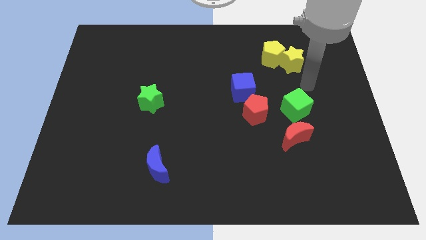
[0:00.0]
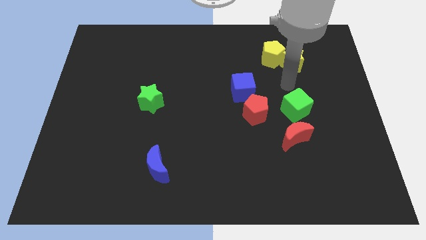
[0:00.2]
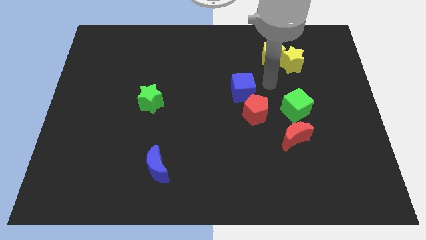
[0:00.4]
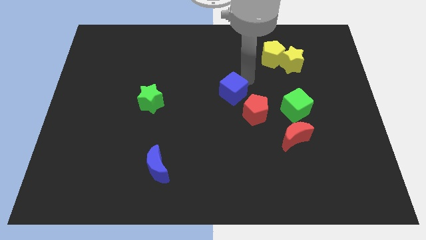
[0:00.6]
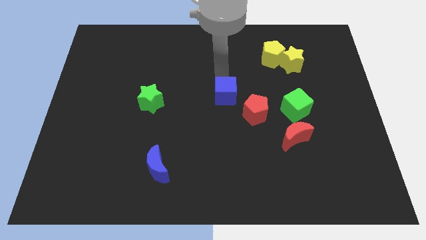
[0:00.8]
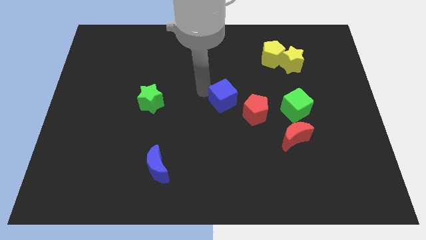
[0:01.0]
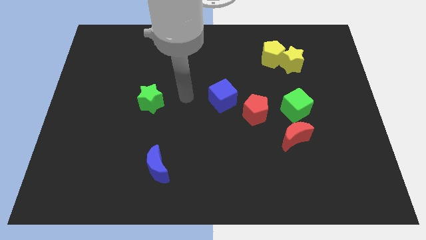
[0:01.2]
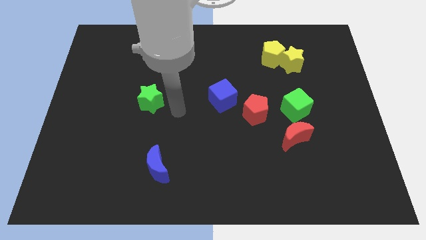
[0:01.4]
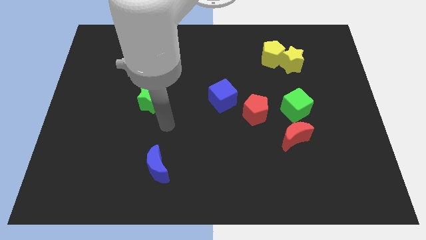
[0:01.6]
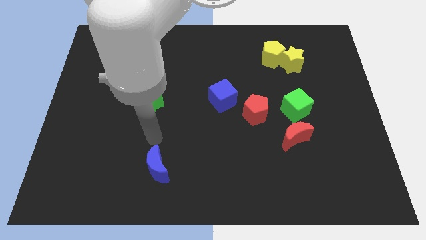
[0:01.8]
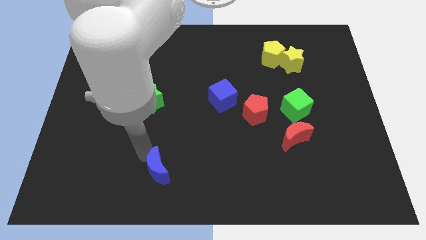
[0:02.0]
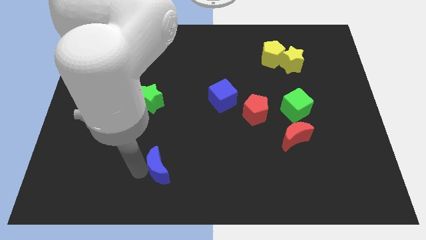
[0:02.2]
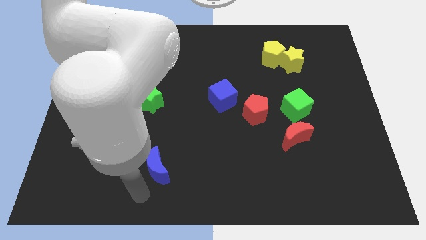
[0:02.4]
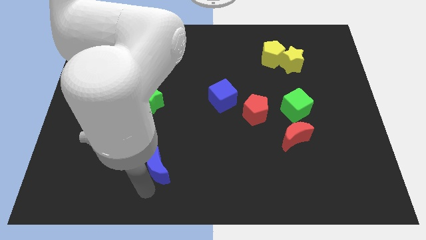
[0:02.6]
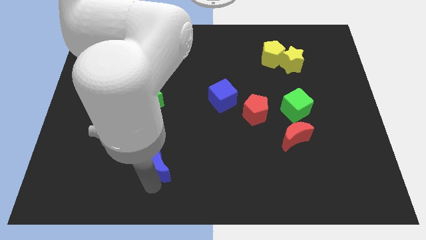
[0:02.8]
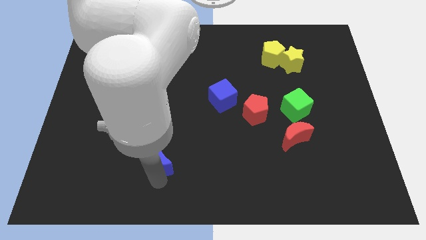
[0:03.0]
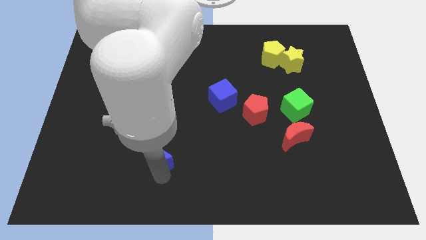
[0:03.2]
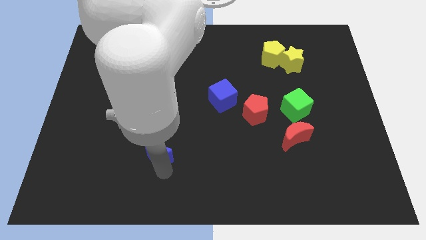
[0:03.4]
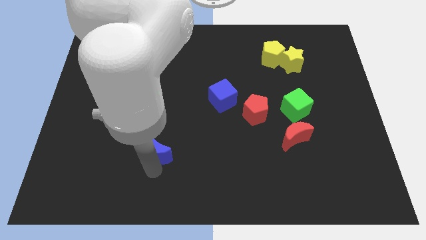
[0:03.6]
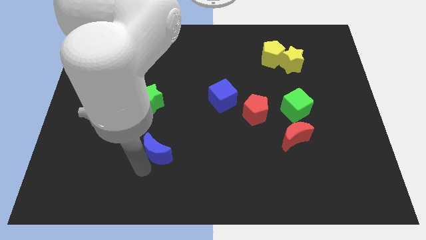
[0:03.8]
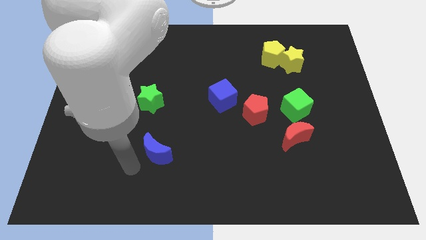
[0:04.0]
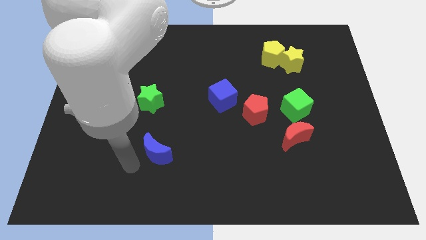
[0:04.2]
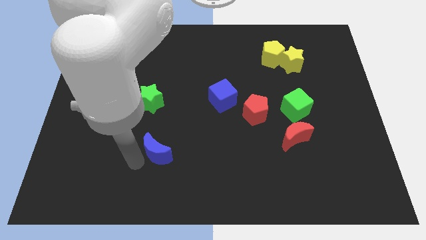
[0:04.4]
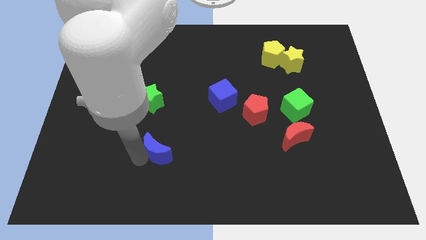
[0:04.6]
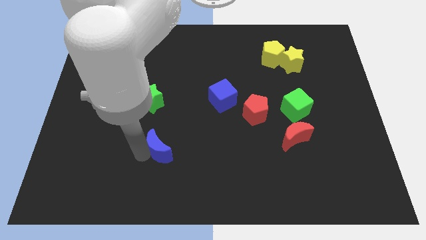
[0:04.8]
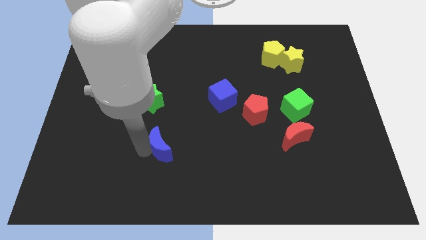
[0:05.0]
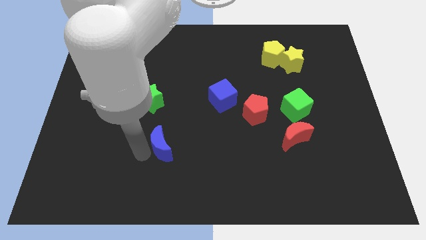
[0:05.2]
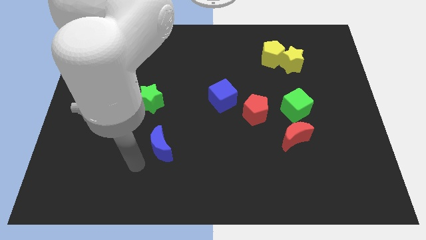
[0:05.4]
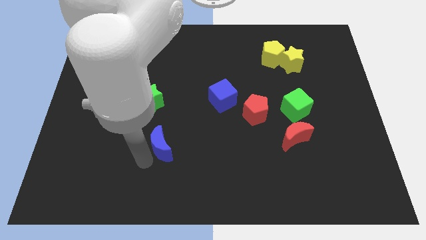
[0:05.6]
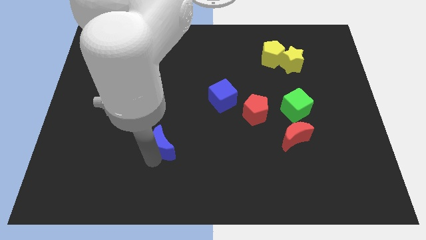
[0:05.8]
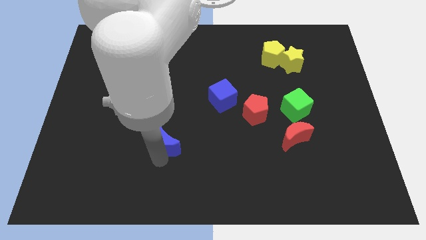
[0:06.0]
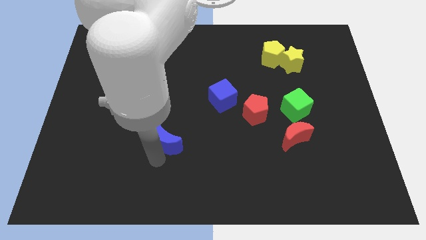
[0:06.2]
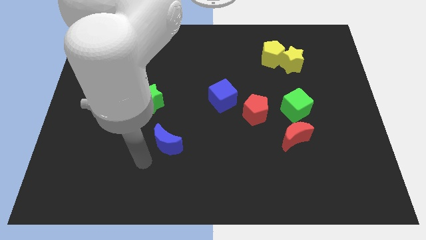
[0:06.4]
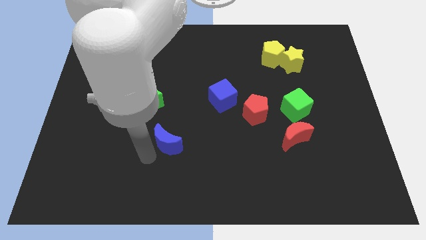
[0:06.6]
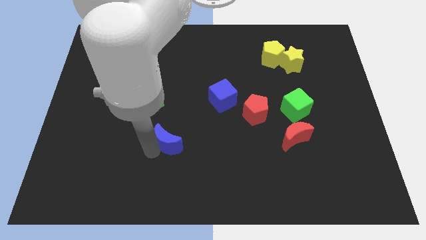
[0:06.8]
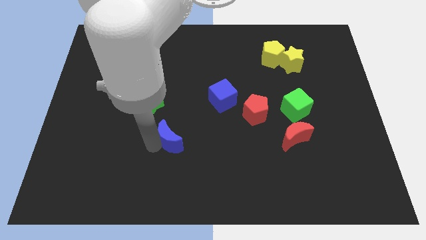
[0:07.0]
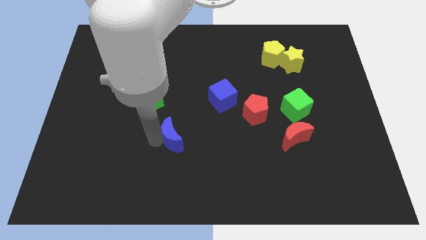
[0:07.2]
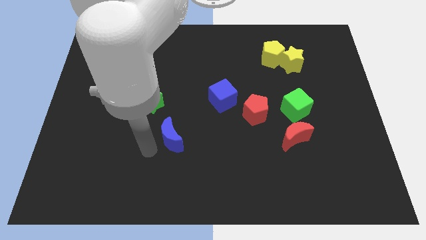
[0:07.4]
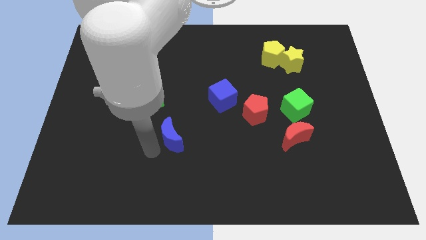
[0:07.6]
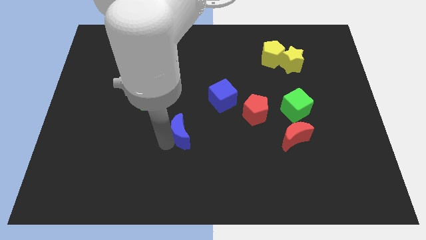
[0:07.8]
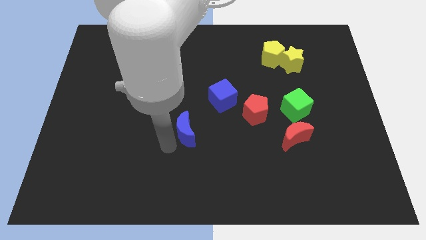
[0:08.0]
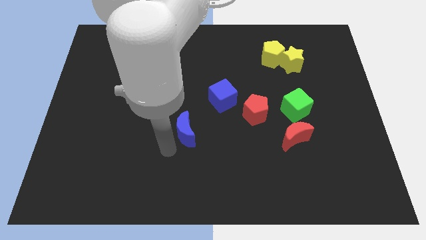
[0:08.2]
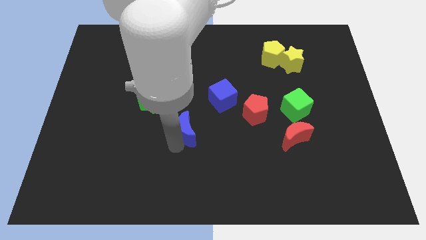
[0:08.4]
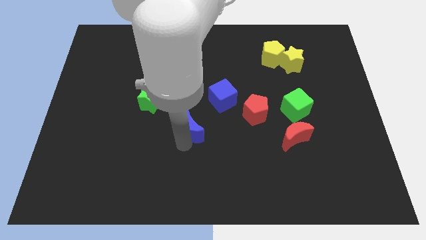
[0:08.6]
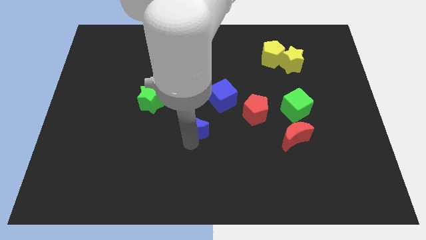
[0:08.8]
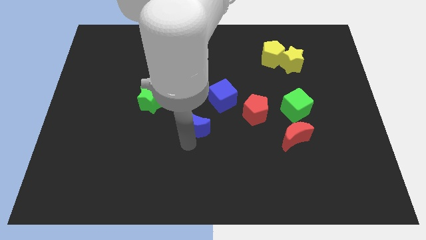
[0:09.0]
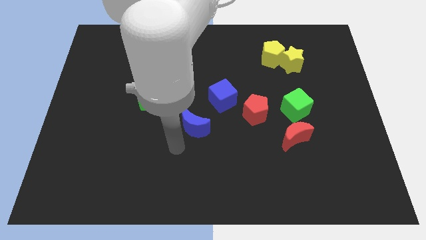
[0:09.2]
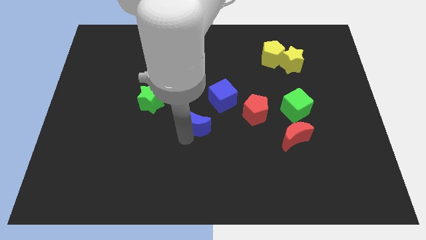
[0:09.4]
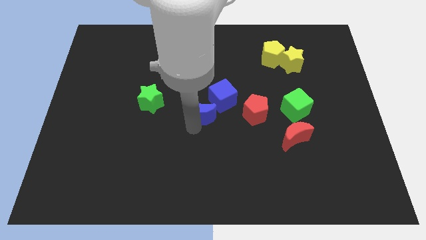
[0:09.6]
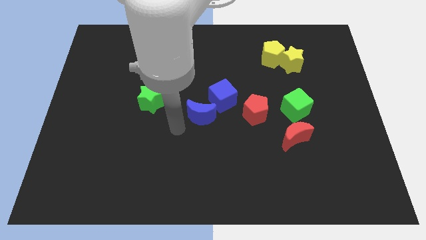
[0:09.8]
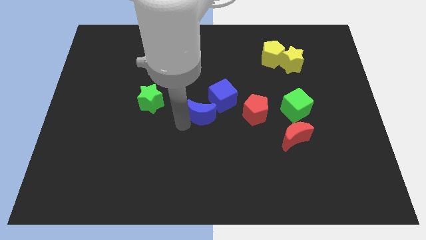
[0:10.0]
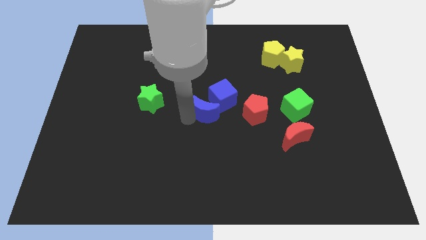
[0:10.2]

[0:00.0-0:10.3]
slide the blue moon next to the blue cube

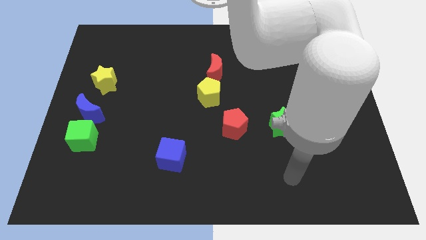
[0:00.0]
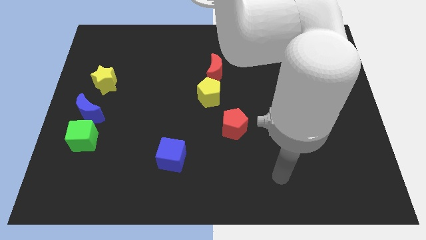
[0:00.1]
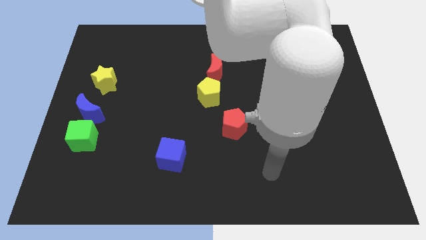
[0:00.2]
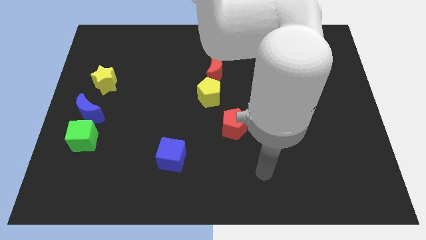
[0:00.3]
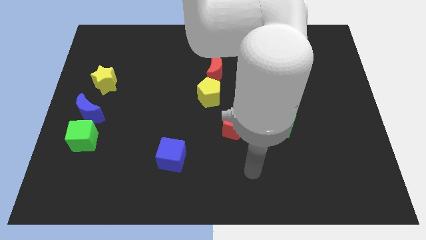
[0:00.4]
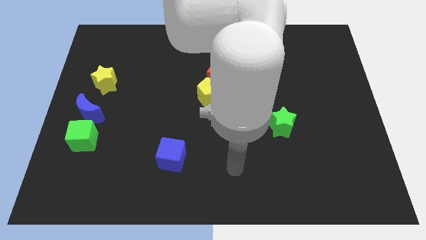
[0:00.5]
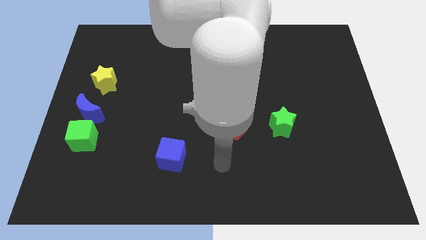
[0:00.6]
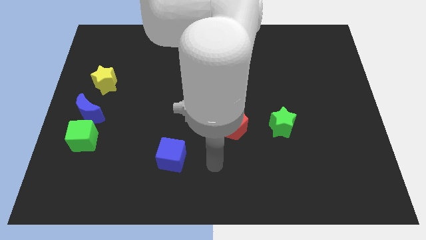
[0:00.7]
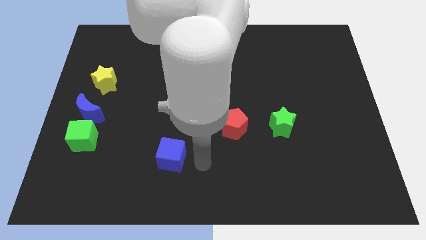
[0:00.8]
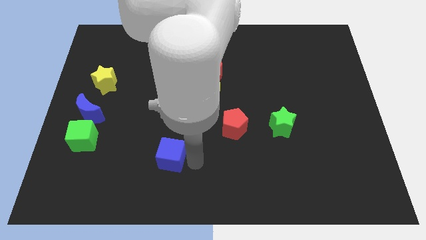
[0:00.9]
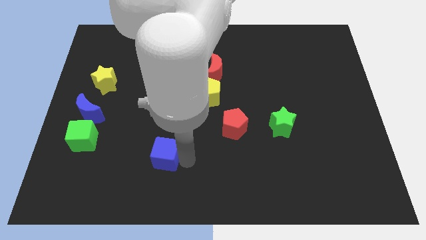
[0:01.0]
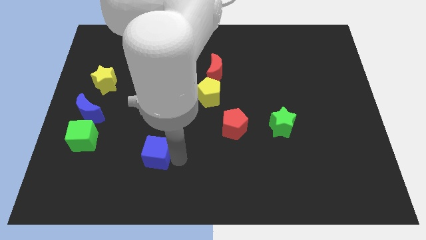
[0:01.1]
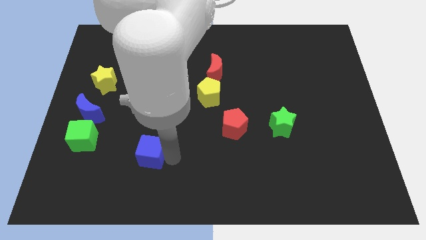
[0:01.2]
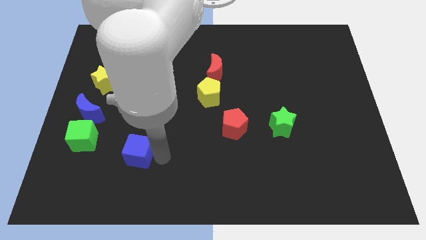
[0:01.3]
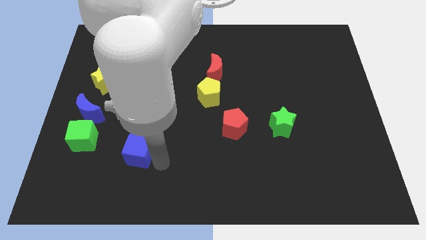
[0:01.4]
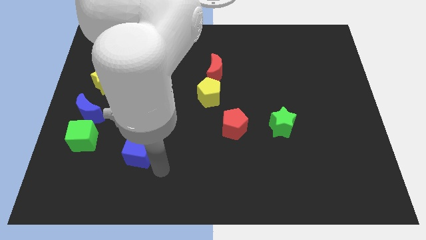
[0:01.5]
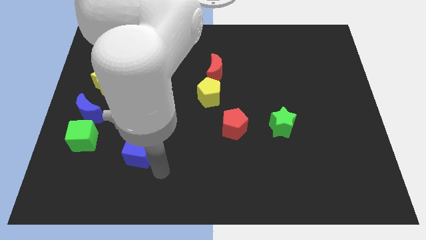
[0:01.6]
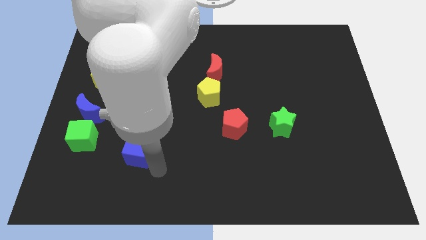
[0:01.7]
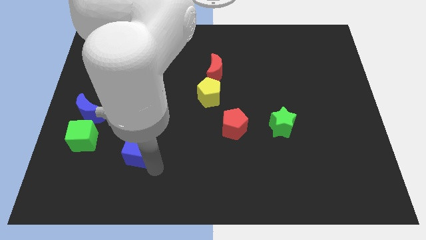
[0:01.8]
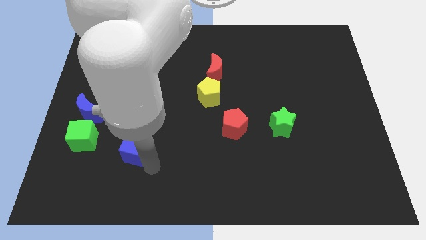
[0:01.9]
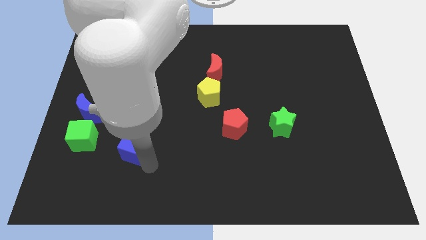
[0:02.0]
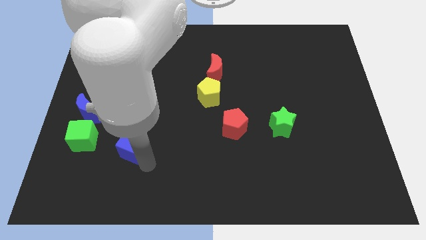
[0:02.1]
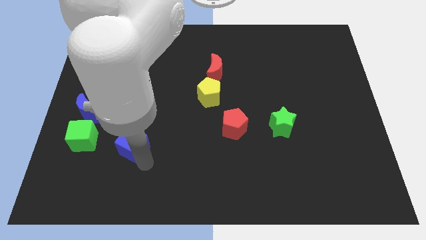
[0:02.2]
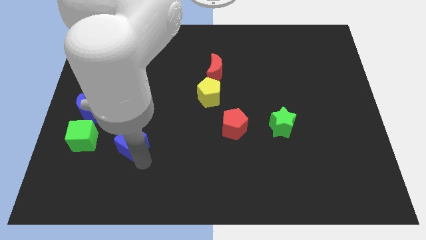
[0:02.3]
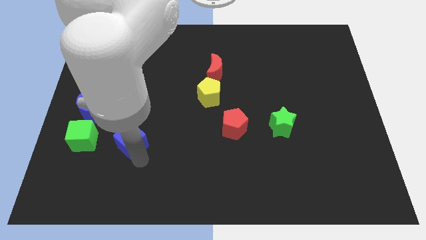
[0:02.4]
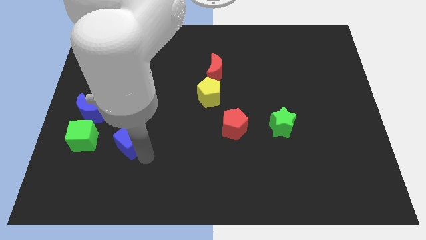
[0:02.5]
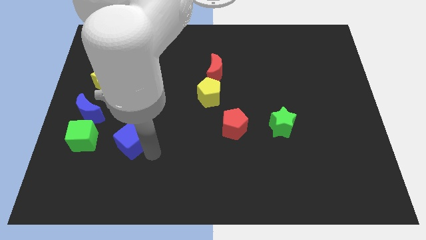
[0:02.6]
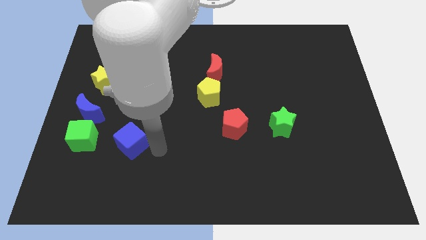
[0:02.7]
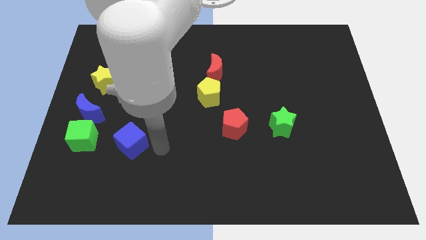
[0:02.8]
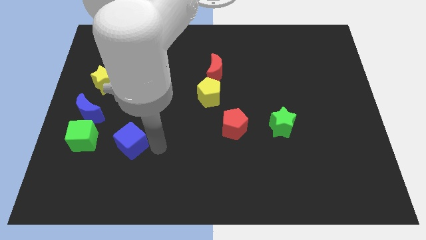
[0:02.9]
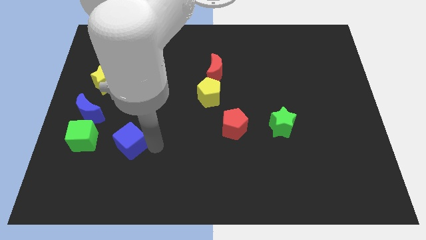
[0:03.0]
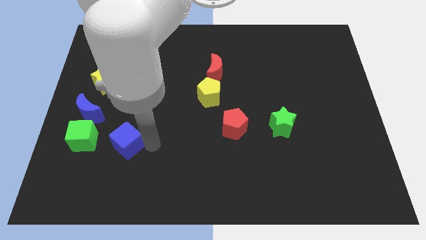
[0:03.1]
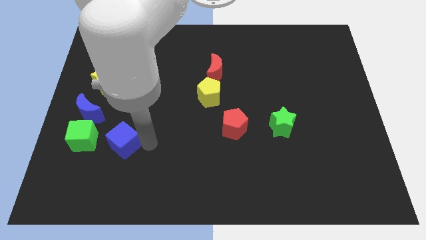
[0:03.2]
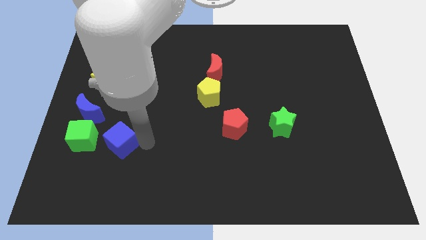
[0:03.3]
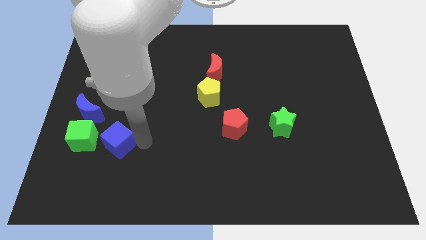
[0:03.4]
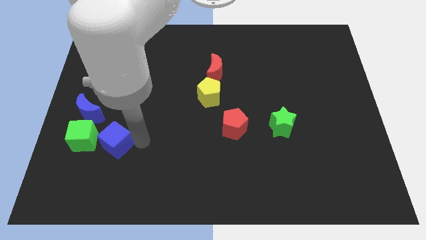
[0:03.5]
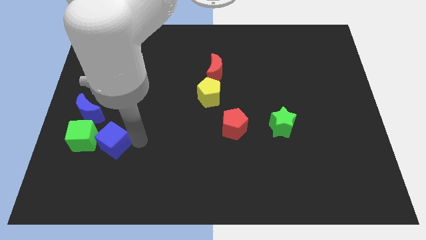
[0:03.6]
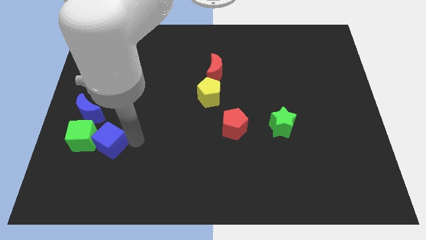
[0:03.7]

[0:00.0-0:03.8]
slide the blue cube to the green cube
